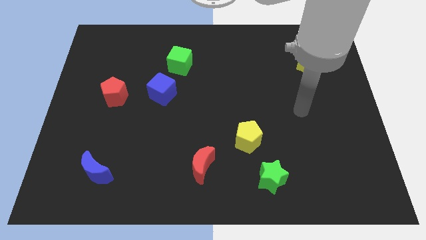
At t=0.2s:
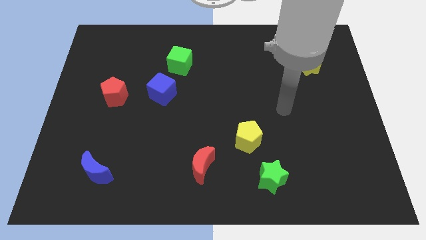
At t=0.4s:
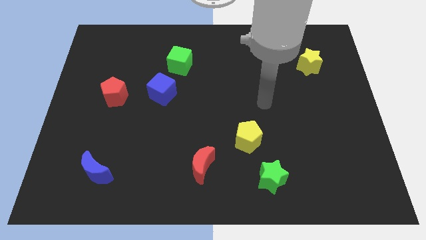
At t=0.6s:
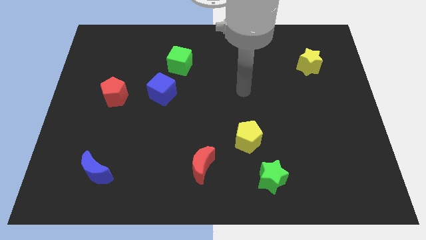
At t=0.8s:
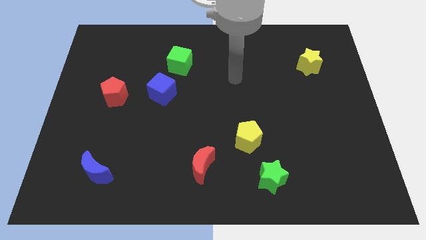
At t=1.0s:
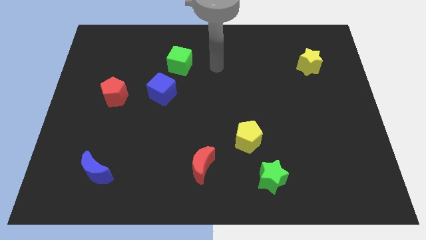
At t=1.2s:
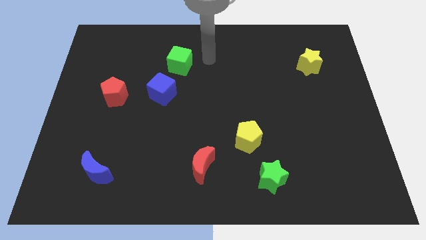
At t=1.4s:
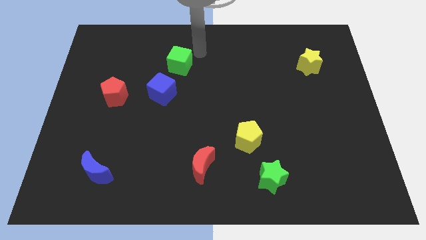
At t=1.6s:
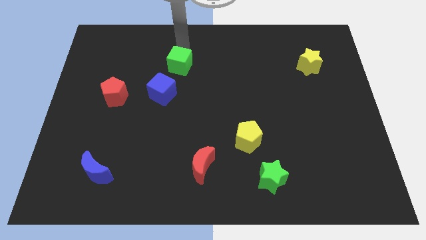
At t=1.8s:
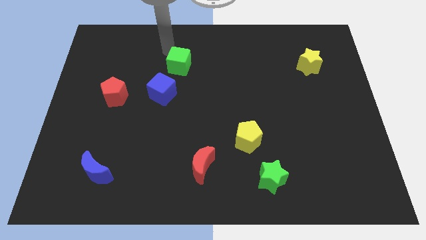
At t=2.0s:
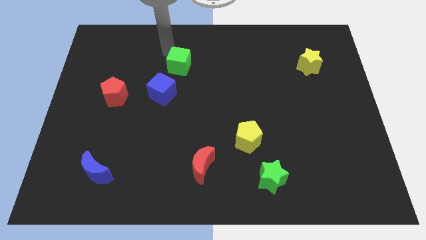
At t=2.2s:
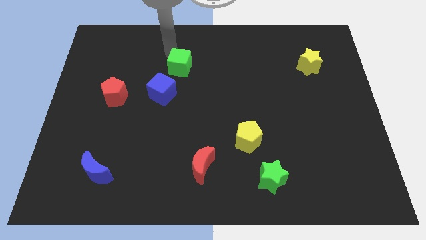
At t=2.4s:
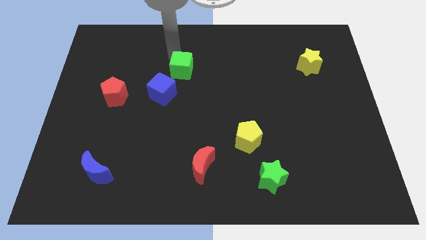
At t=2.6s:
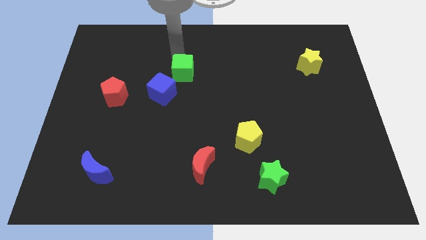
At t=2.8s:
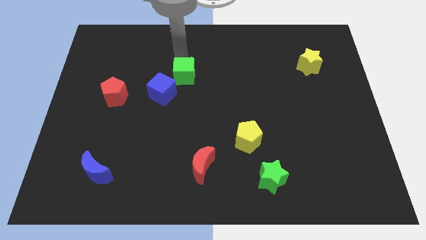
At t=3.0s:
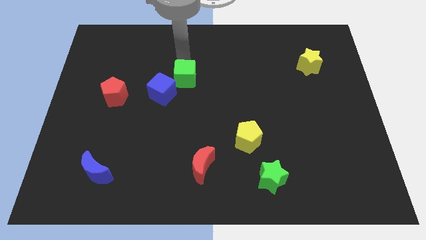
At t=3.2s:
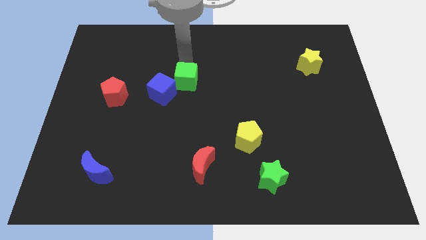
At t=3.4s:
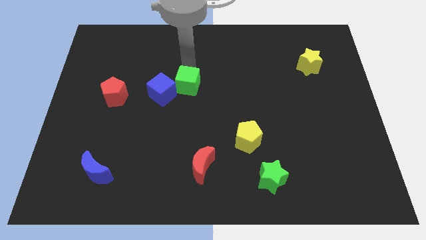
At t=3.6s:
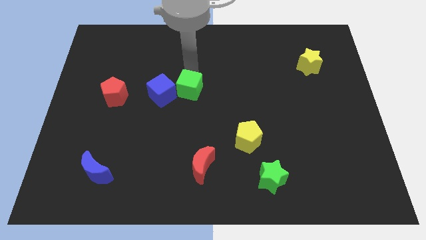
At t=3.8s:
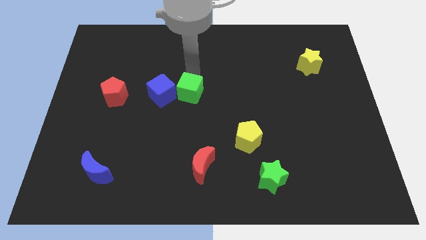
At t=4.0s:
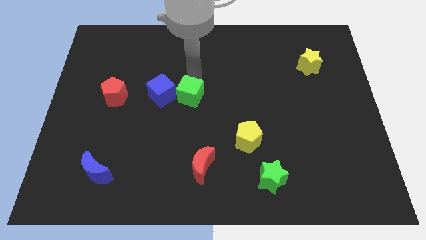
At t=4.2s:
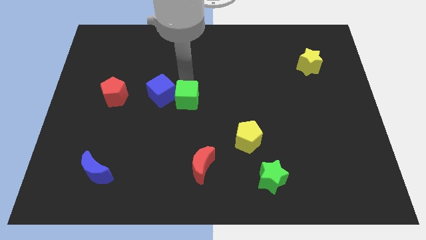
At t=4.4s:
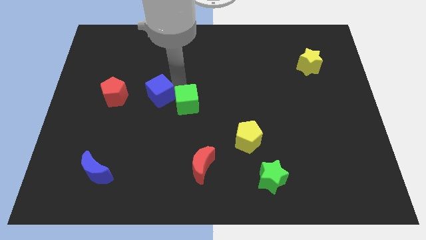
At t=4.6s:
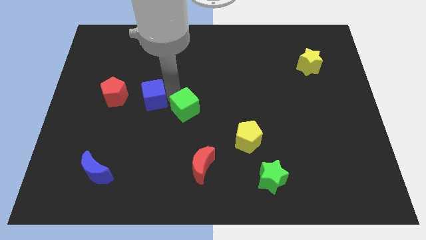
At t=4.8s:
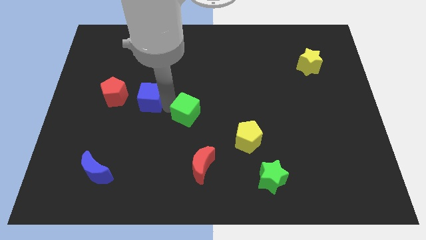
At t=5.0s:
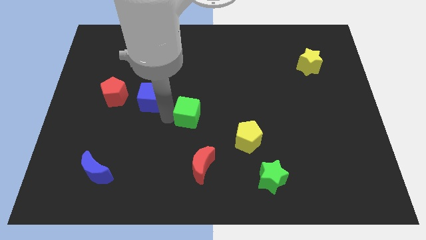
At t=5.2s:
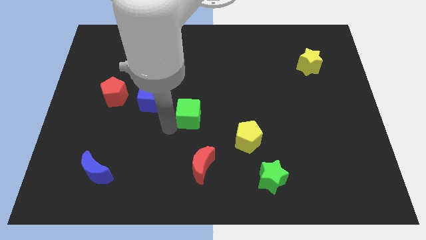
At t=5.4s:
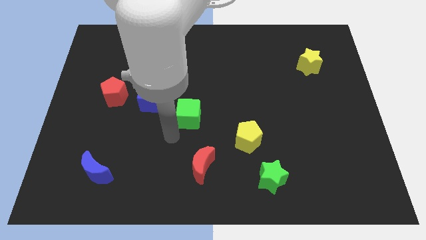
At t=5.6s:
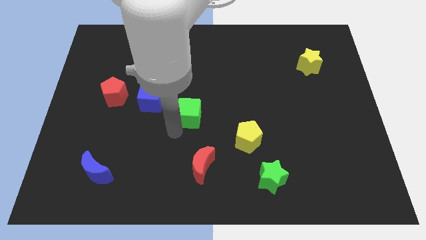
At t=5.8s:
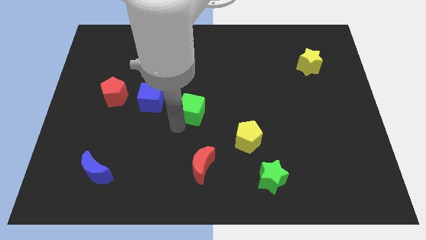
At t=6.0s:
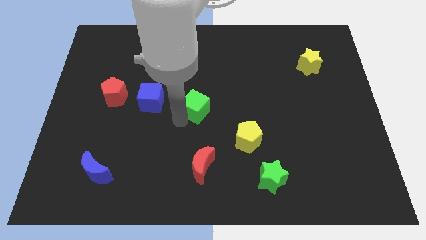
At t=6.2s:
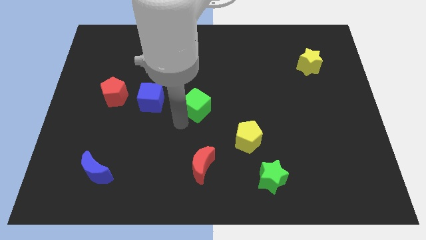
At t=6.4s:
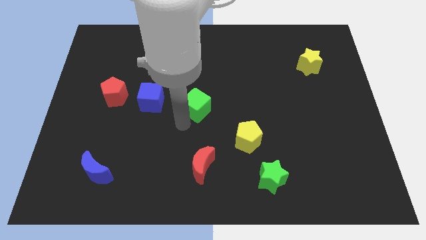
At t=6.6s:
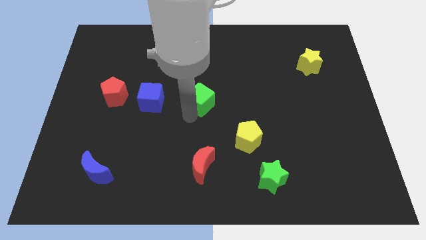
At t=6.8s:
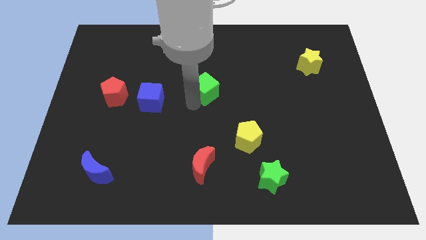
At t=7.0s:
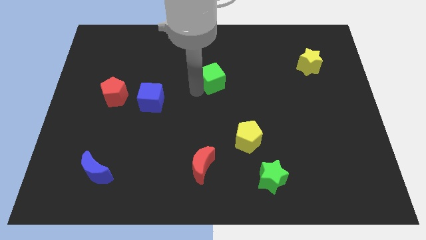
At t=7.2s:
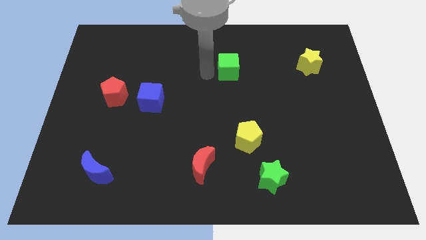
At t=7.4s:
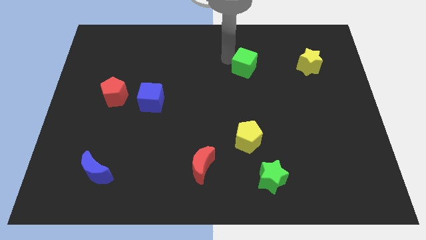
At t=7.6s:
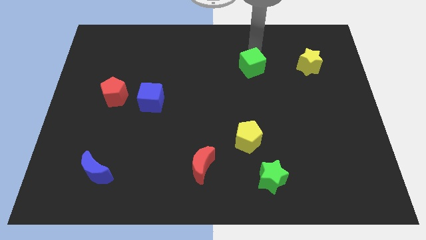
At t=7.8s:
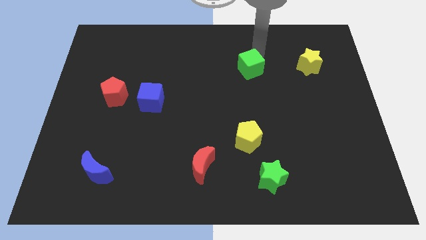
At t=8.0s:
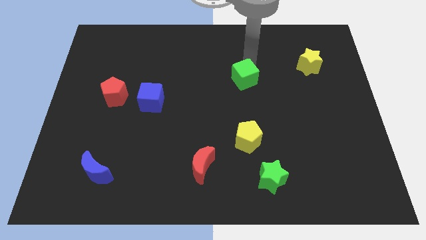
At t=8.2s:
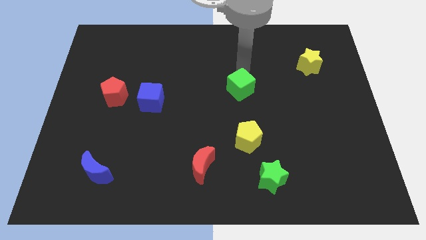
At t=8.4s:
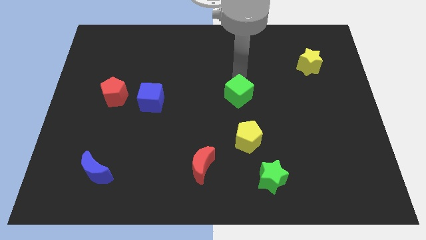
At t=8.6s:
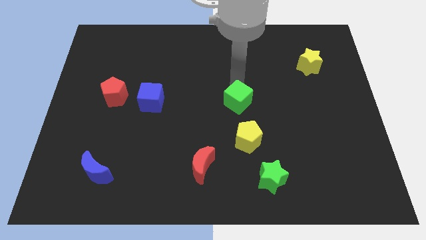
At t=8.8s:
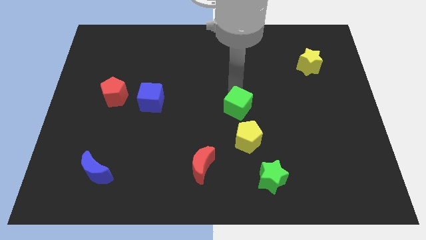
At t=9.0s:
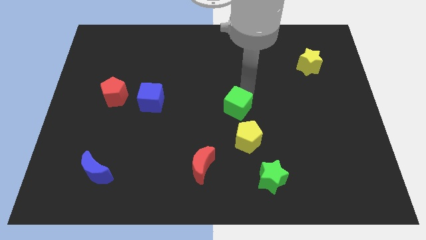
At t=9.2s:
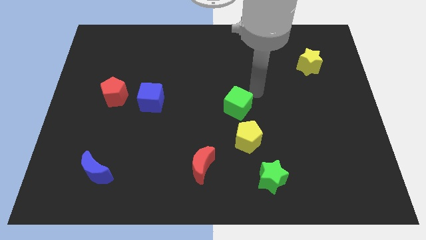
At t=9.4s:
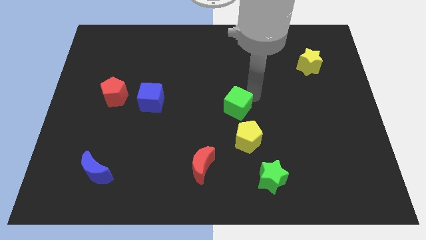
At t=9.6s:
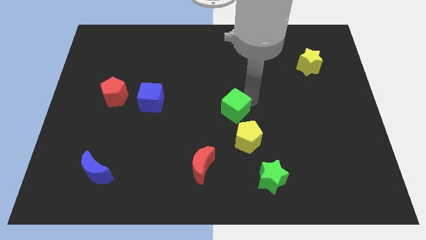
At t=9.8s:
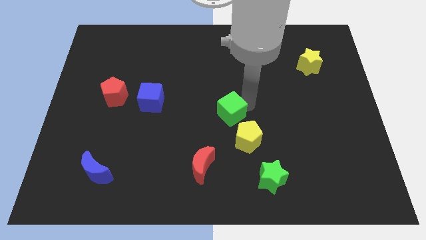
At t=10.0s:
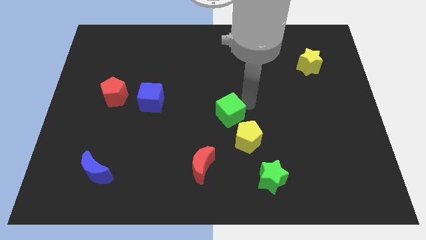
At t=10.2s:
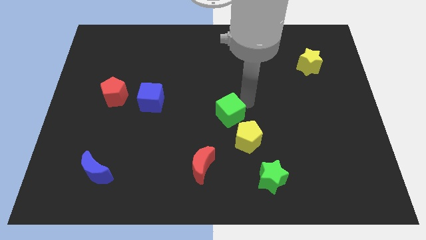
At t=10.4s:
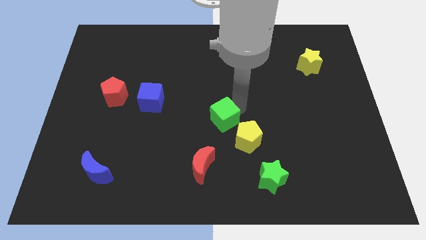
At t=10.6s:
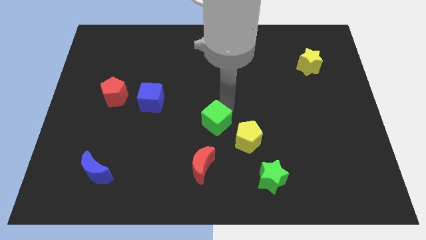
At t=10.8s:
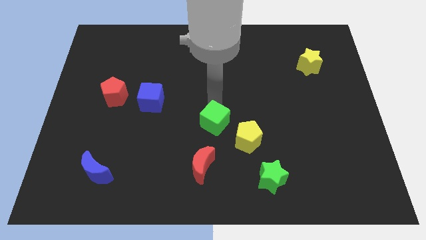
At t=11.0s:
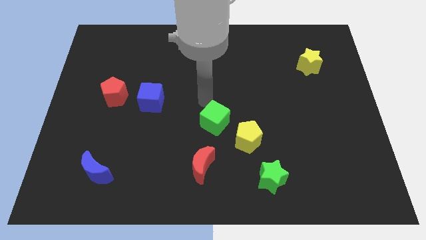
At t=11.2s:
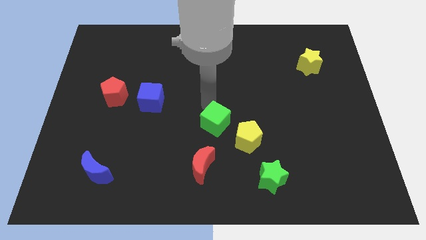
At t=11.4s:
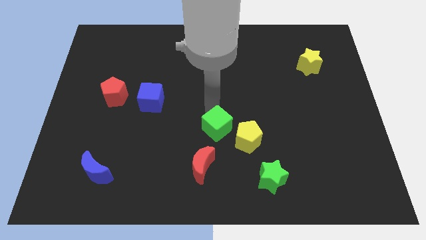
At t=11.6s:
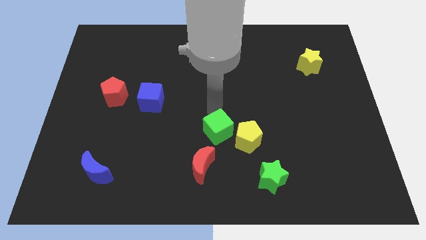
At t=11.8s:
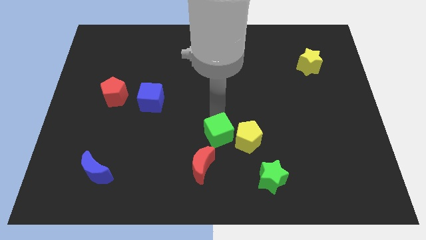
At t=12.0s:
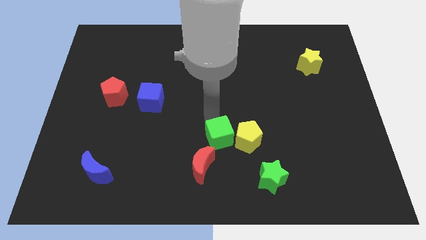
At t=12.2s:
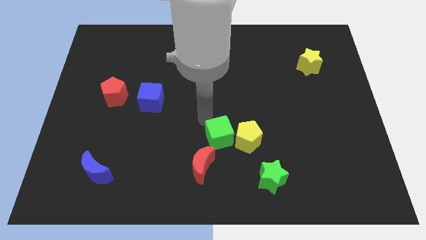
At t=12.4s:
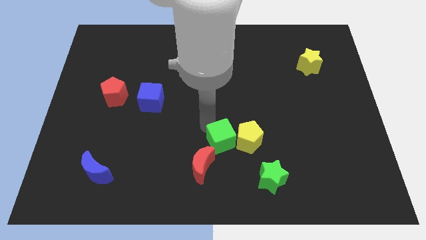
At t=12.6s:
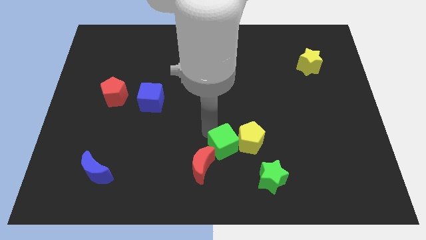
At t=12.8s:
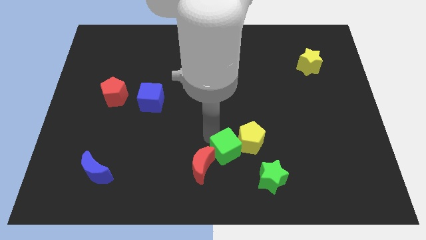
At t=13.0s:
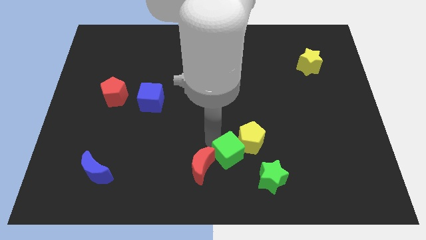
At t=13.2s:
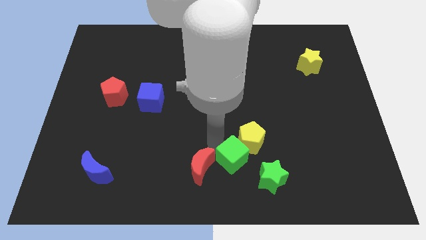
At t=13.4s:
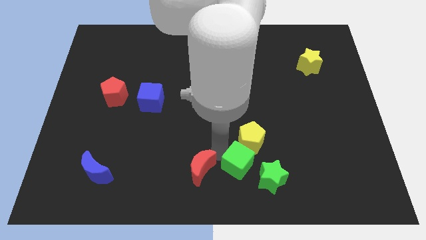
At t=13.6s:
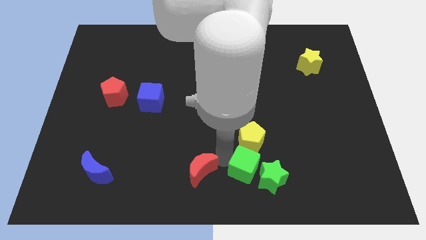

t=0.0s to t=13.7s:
put the green cube to the green star

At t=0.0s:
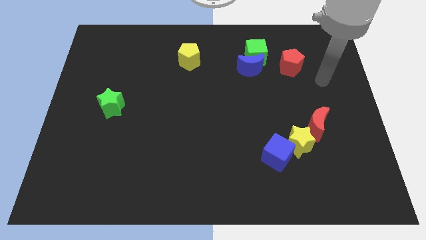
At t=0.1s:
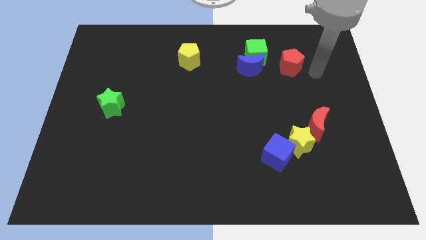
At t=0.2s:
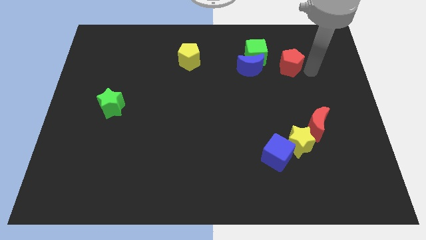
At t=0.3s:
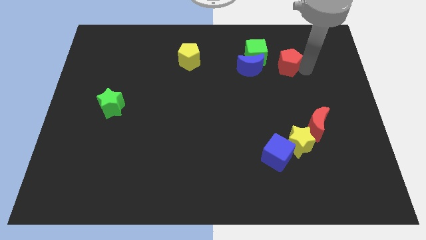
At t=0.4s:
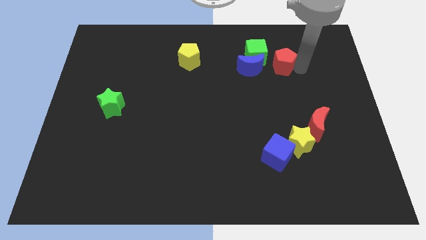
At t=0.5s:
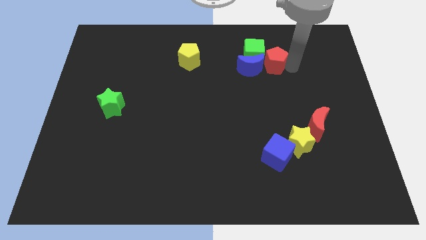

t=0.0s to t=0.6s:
slide the red pentagon close to the green cube

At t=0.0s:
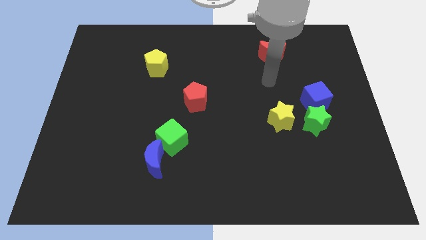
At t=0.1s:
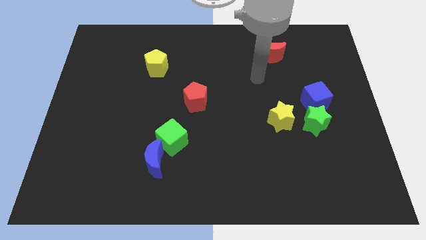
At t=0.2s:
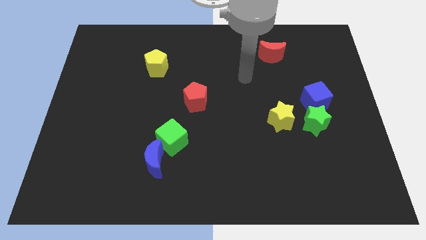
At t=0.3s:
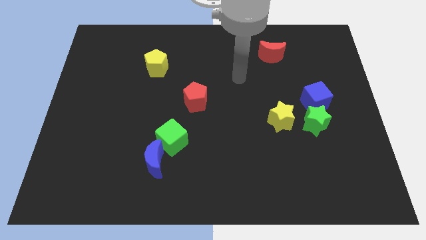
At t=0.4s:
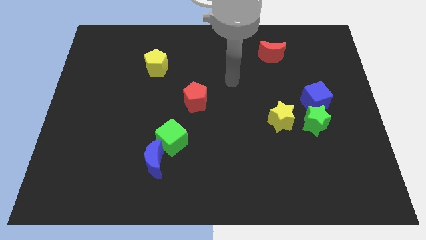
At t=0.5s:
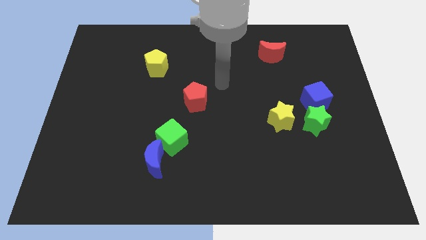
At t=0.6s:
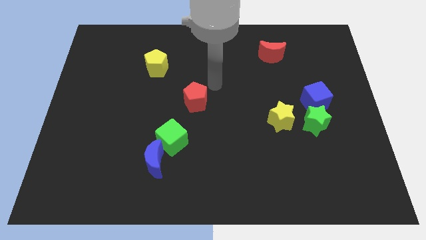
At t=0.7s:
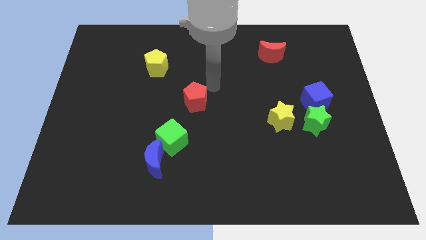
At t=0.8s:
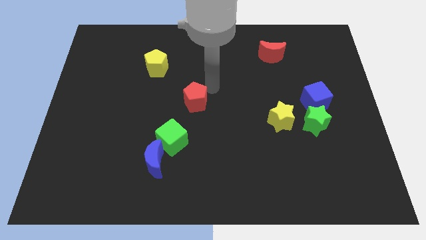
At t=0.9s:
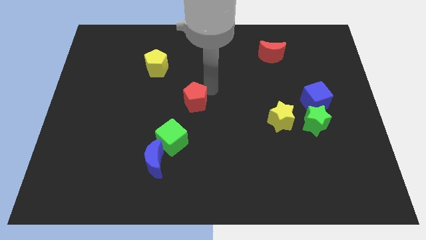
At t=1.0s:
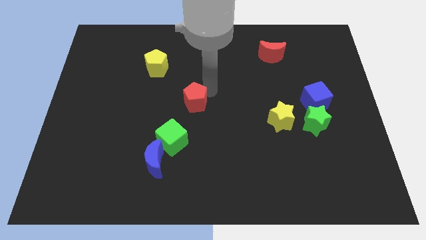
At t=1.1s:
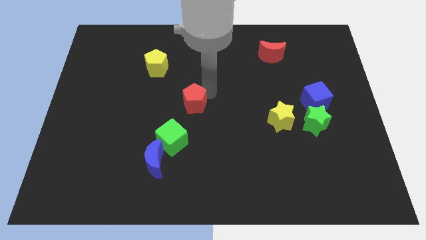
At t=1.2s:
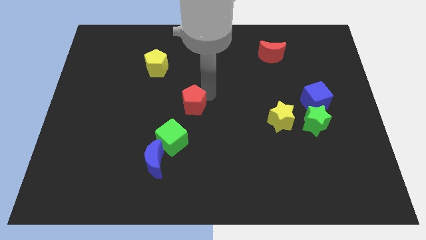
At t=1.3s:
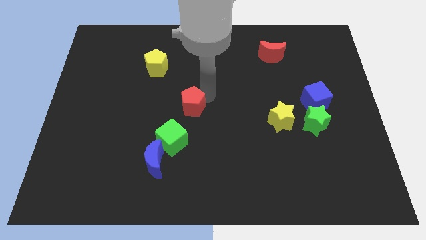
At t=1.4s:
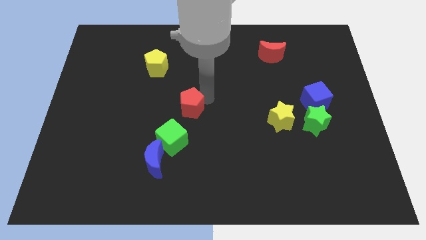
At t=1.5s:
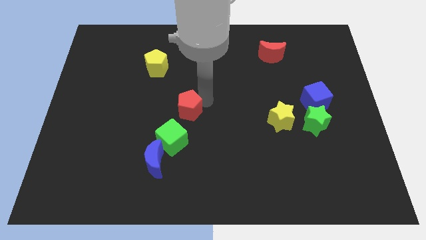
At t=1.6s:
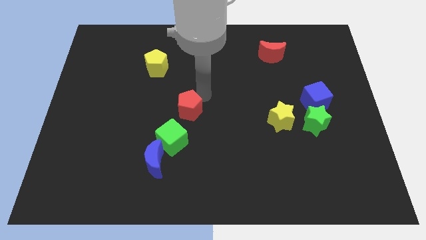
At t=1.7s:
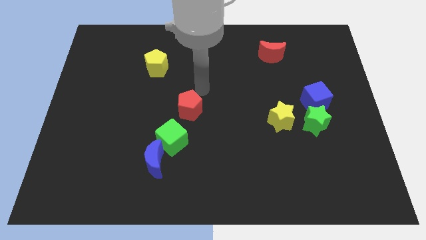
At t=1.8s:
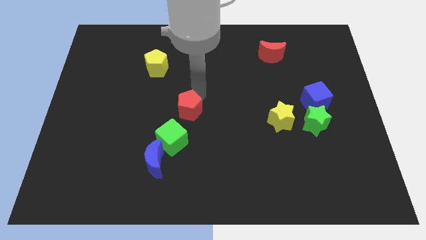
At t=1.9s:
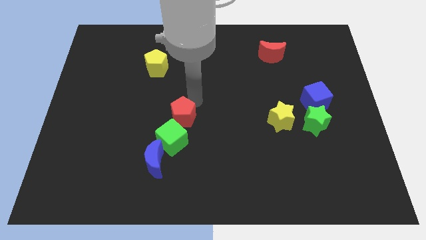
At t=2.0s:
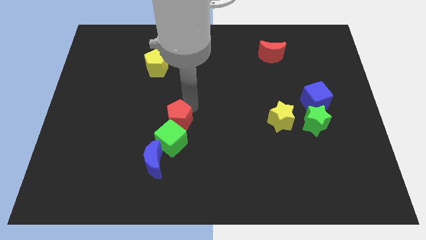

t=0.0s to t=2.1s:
slide the red pentagon to the green cube
